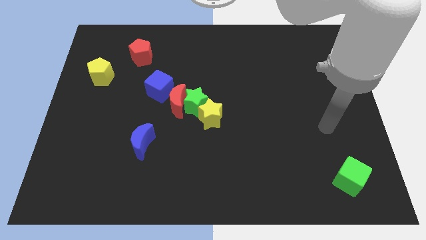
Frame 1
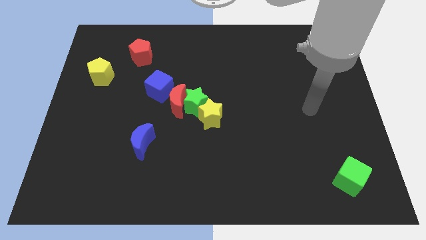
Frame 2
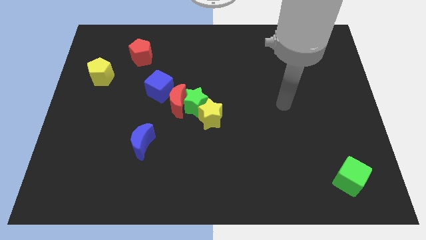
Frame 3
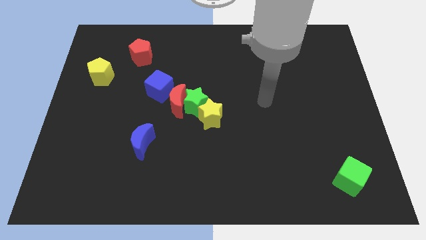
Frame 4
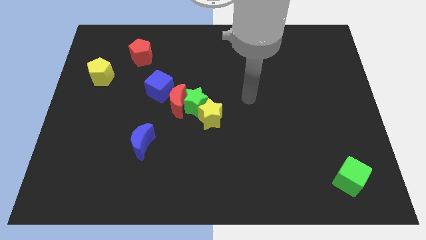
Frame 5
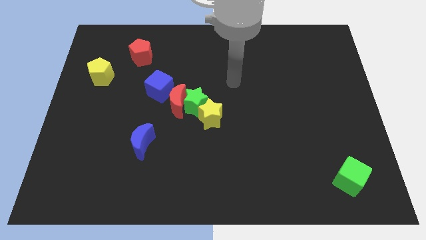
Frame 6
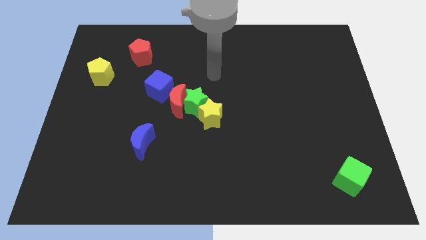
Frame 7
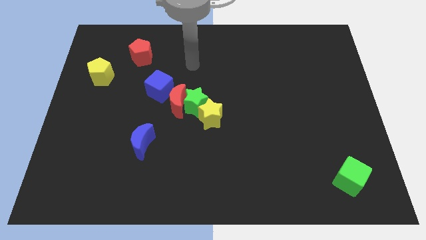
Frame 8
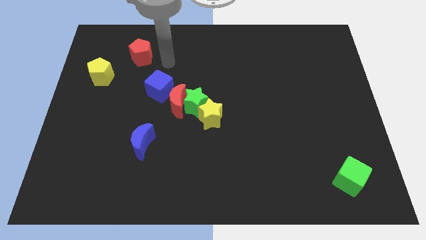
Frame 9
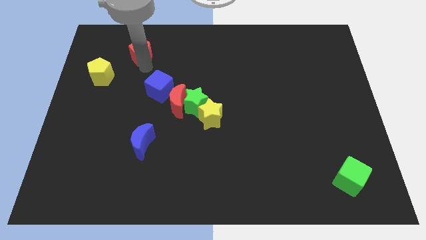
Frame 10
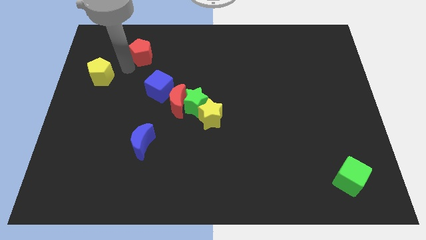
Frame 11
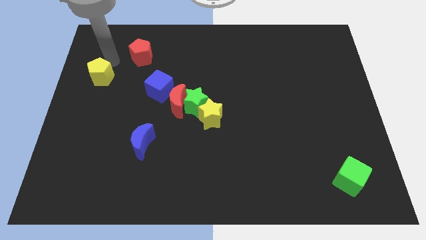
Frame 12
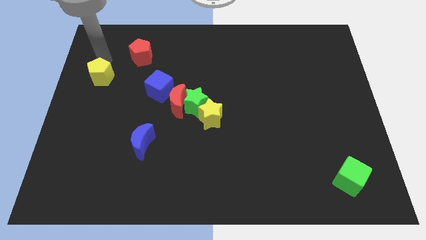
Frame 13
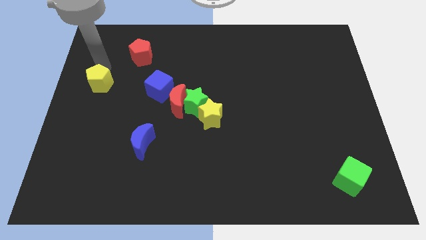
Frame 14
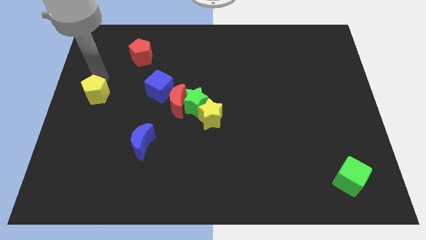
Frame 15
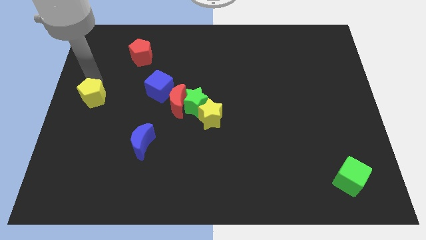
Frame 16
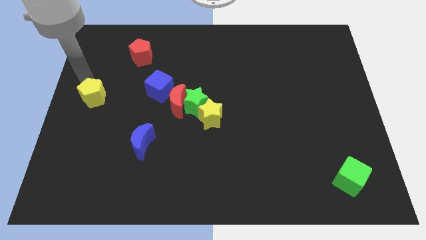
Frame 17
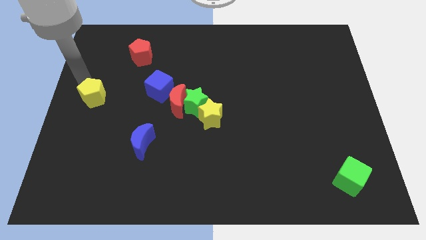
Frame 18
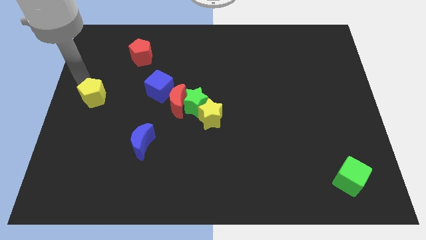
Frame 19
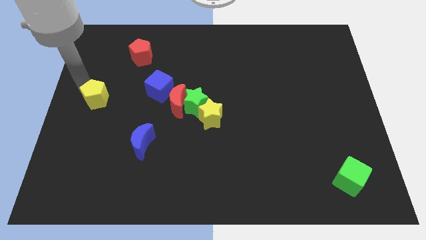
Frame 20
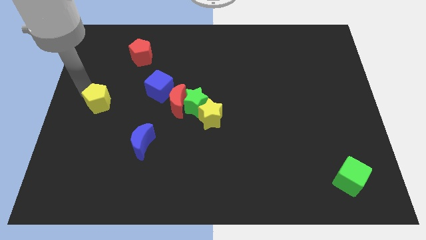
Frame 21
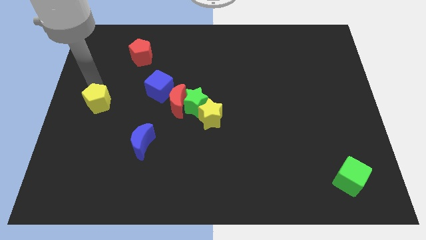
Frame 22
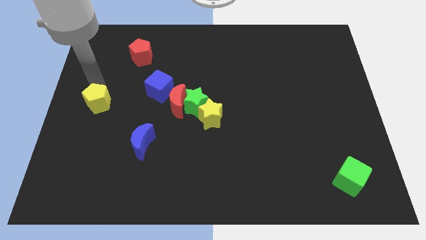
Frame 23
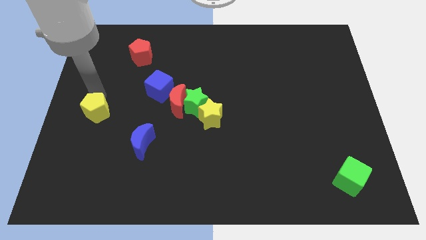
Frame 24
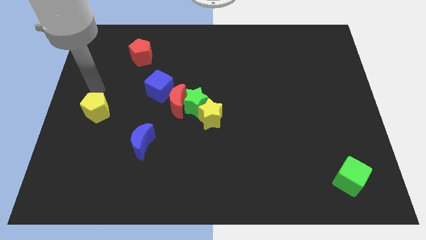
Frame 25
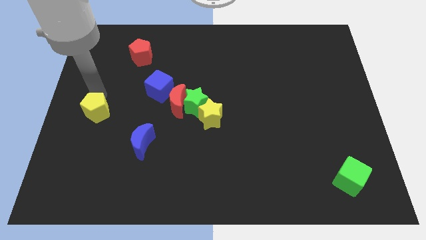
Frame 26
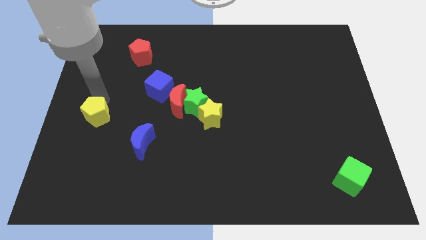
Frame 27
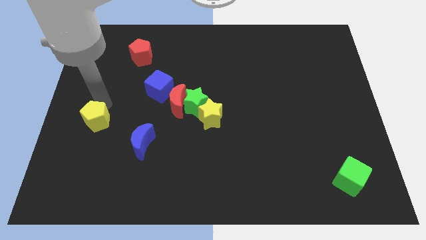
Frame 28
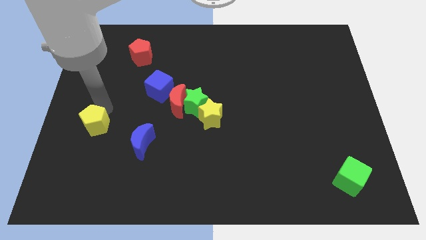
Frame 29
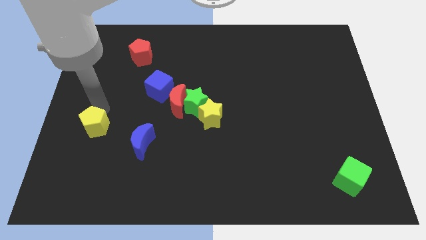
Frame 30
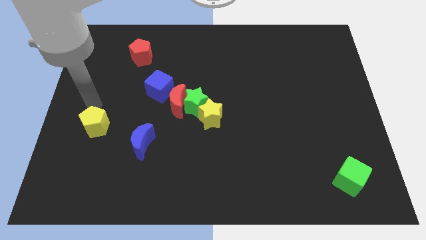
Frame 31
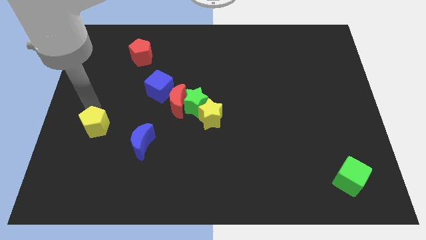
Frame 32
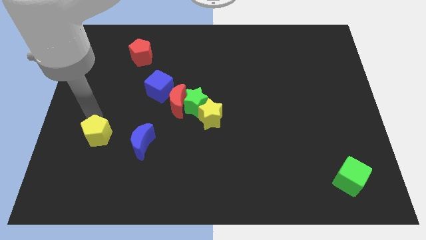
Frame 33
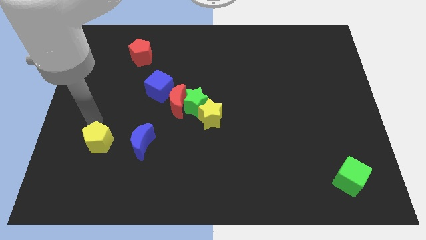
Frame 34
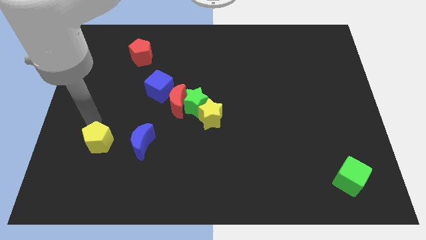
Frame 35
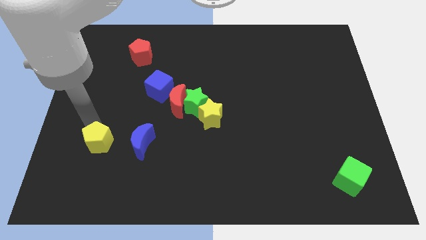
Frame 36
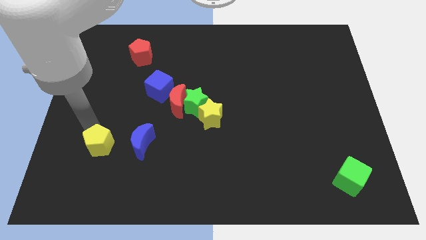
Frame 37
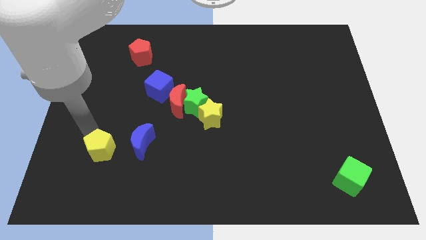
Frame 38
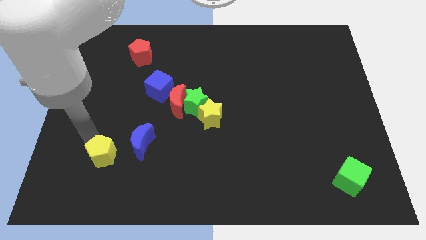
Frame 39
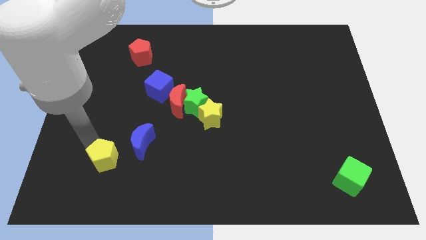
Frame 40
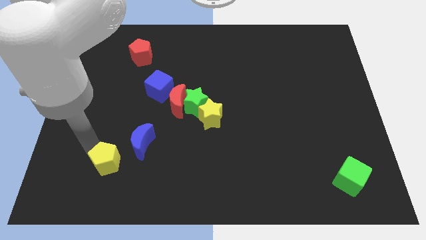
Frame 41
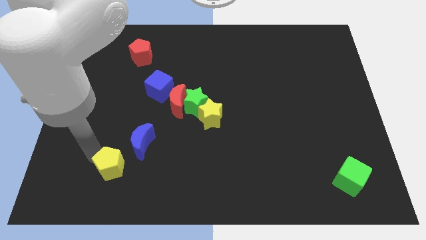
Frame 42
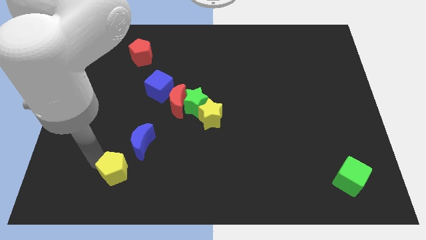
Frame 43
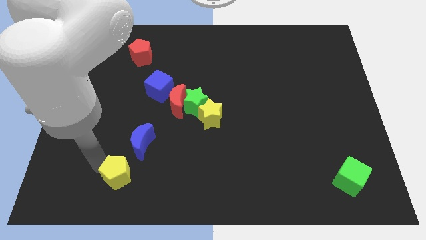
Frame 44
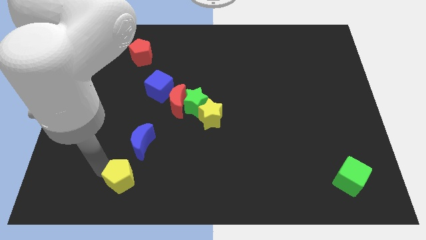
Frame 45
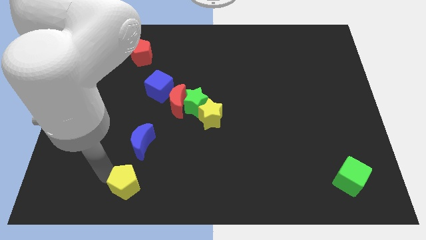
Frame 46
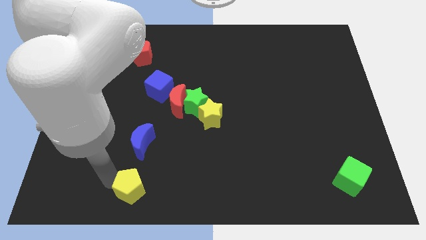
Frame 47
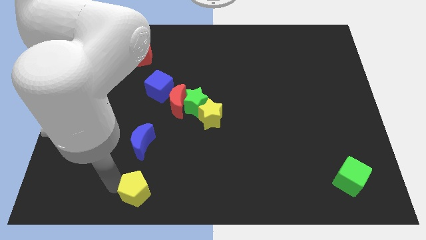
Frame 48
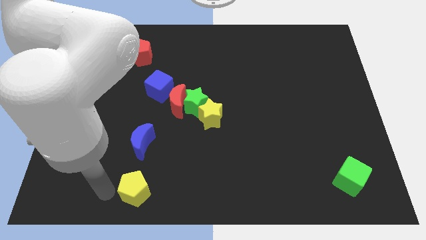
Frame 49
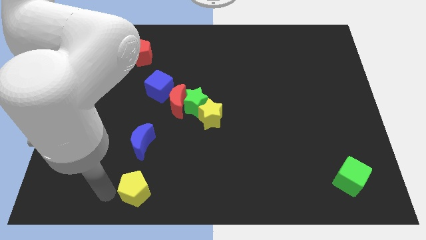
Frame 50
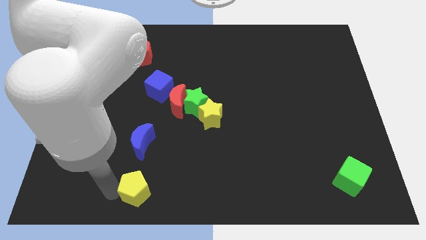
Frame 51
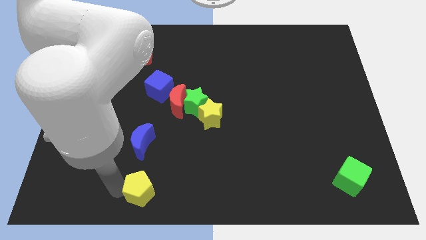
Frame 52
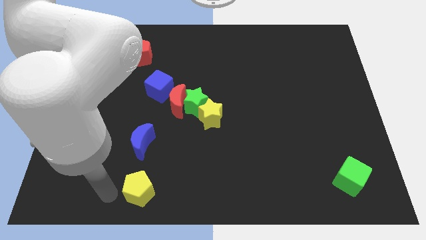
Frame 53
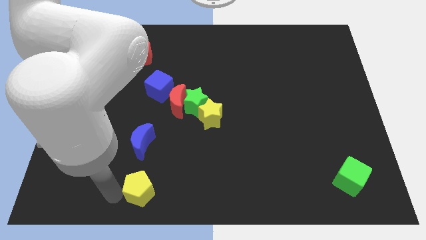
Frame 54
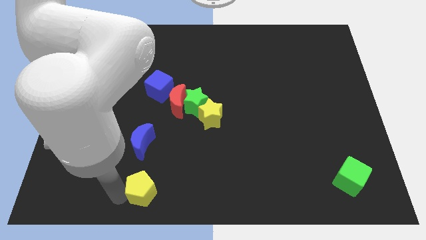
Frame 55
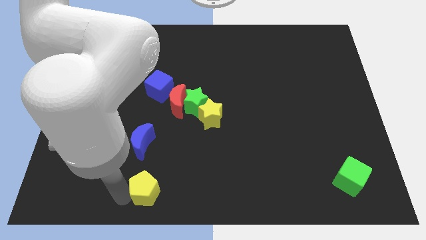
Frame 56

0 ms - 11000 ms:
slide the yellow pentagon to the bottom side

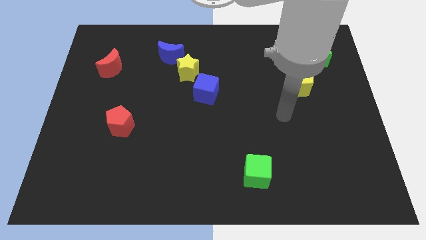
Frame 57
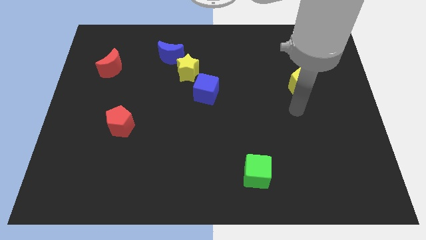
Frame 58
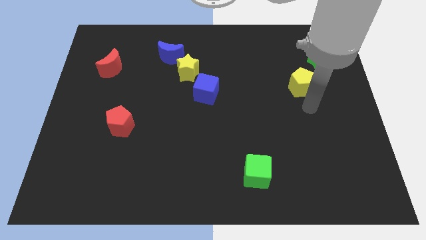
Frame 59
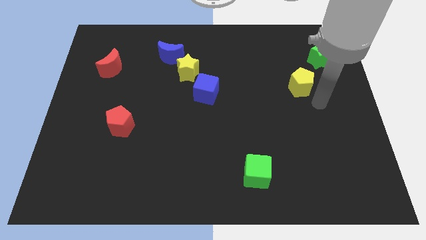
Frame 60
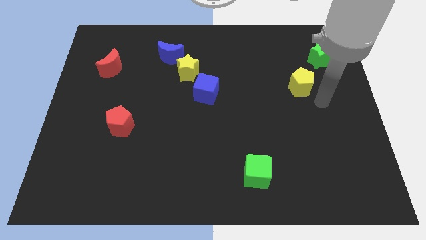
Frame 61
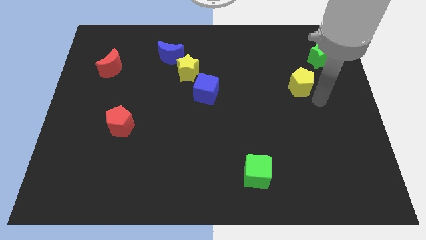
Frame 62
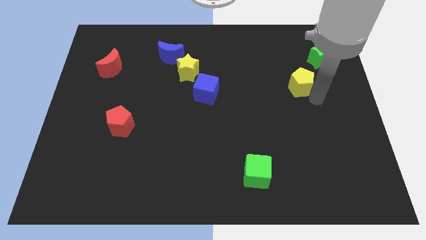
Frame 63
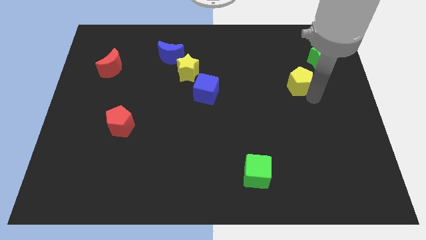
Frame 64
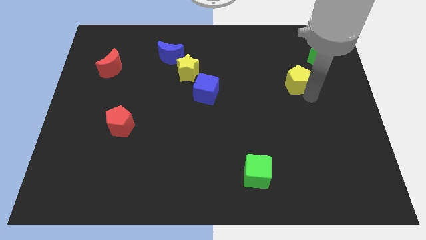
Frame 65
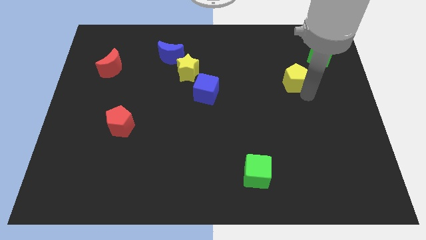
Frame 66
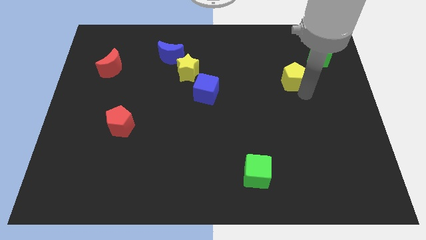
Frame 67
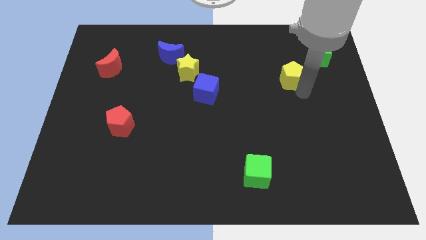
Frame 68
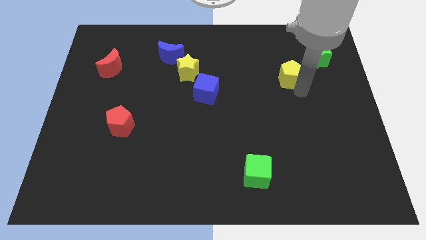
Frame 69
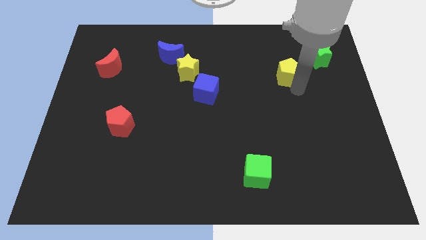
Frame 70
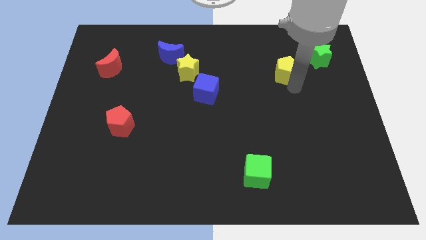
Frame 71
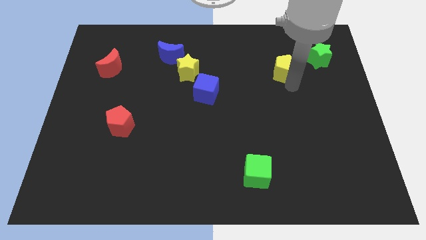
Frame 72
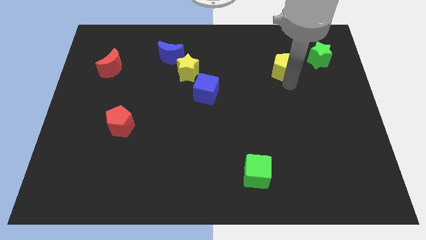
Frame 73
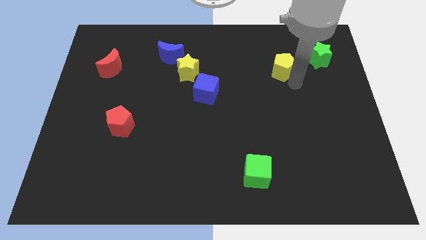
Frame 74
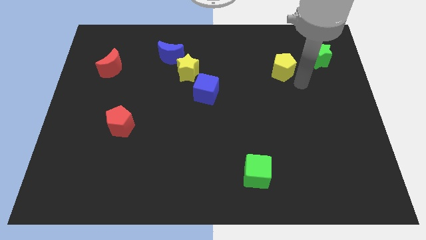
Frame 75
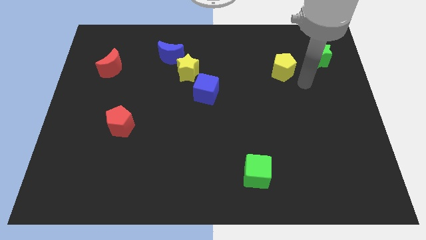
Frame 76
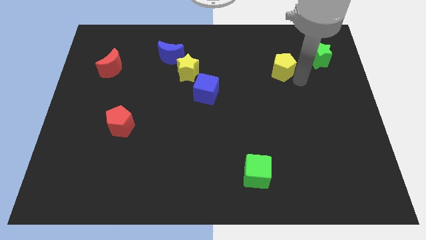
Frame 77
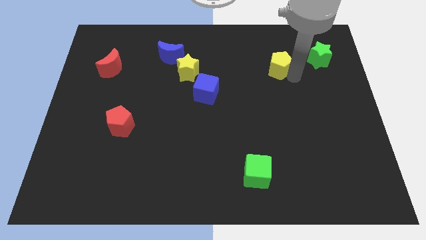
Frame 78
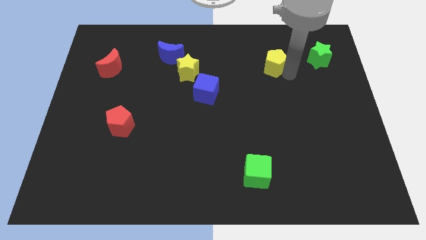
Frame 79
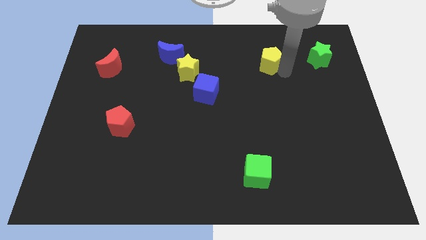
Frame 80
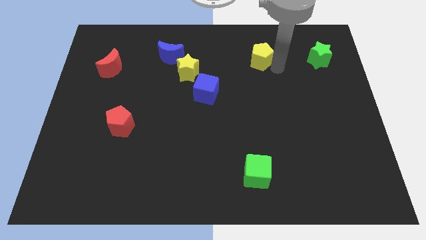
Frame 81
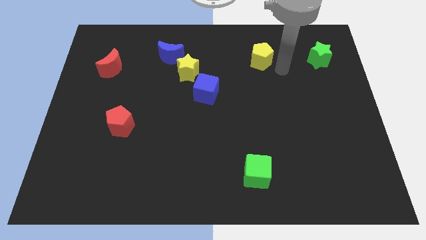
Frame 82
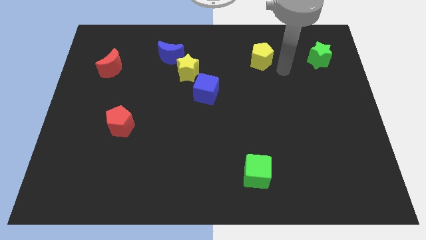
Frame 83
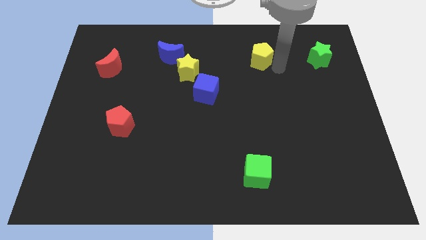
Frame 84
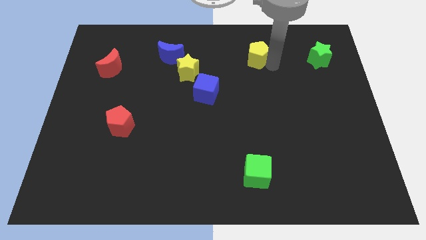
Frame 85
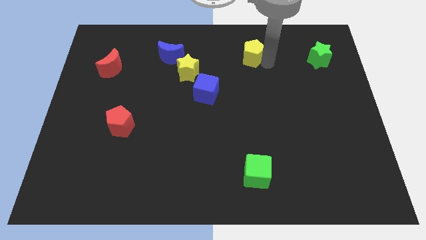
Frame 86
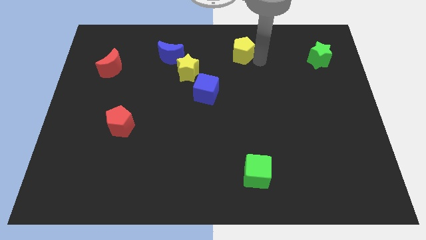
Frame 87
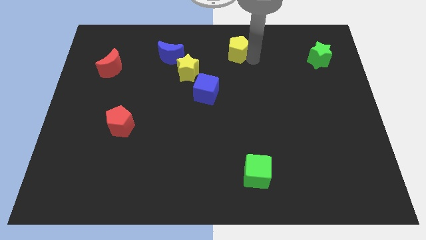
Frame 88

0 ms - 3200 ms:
move the yellow pentagon to the towards your base
